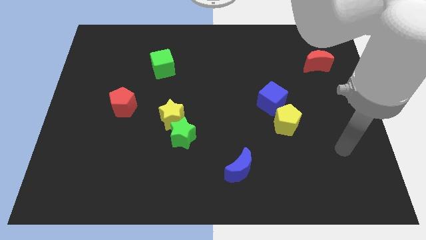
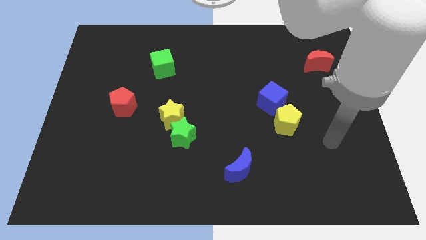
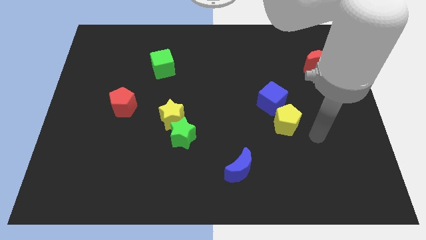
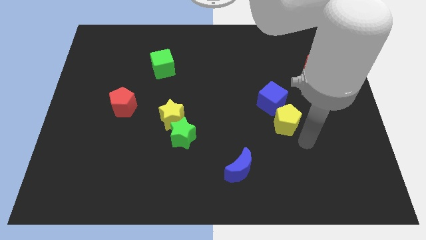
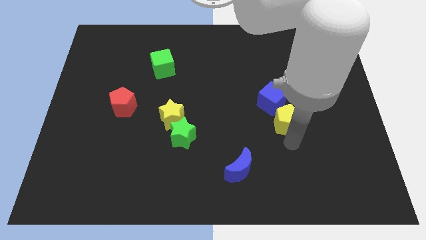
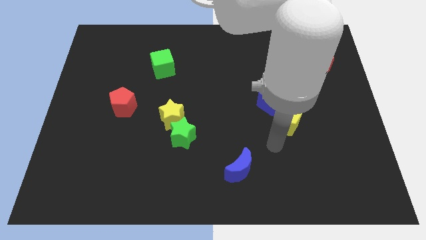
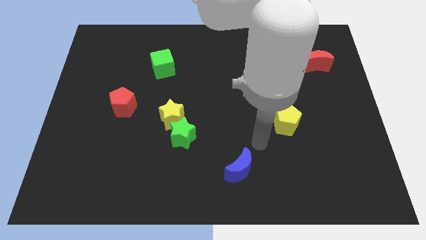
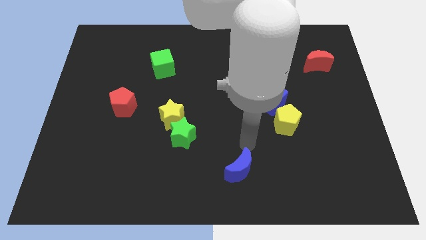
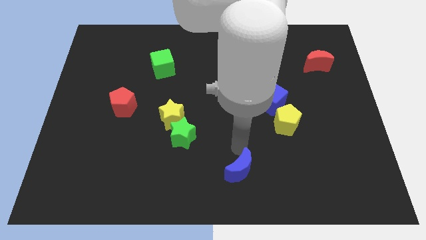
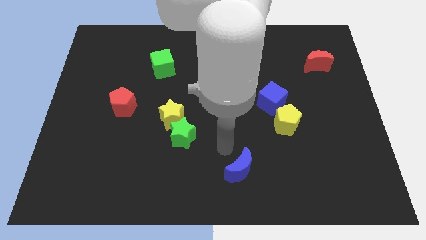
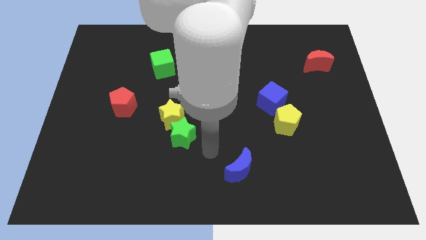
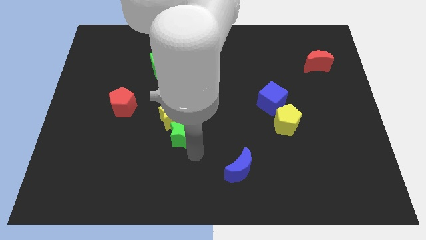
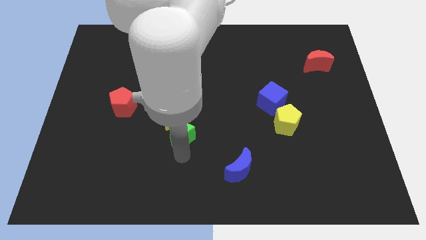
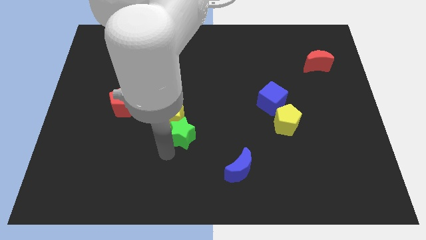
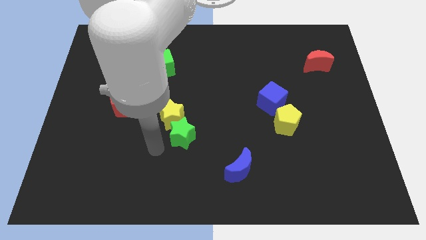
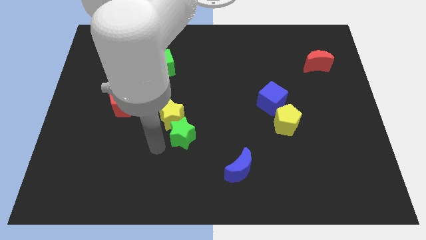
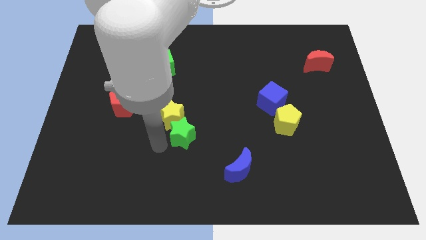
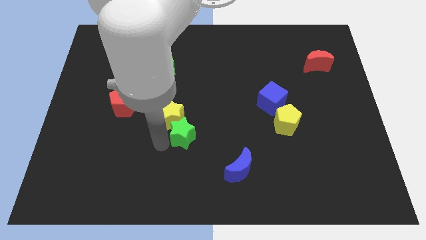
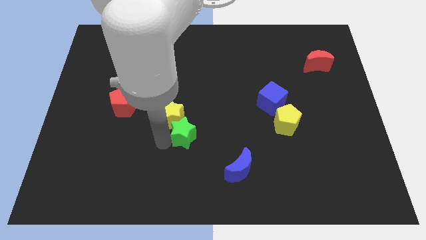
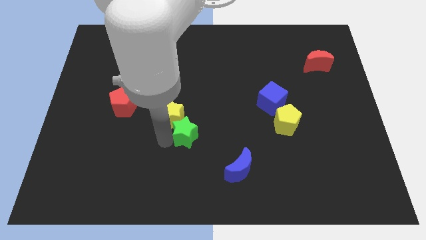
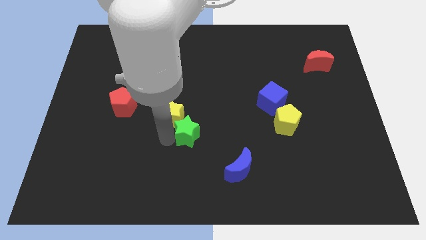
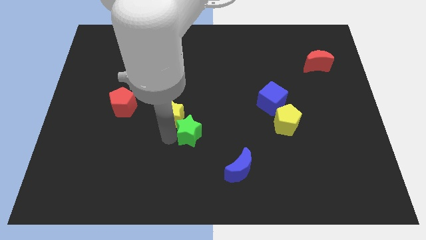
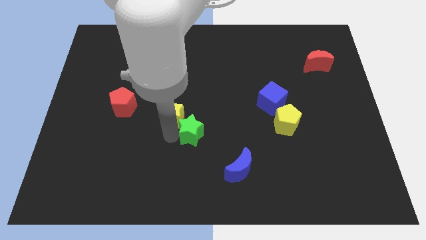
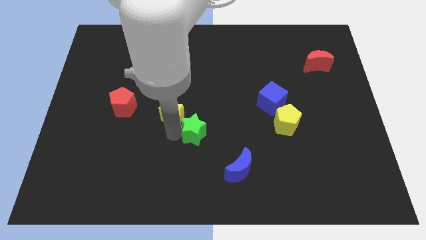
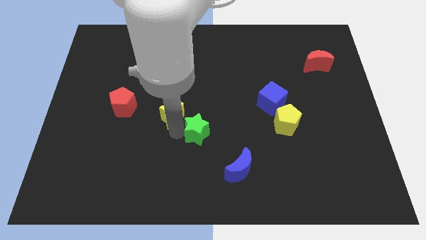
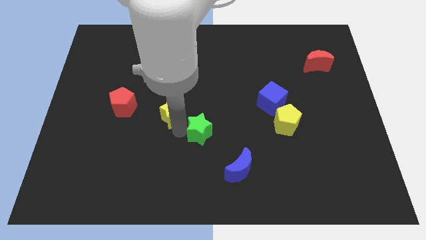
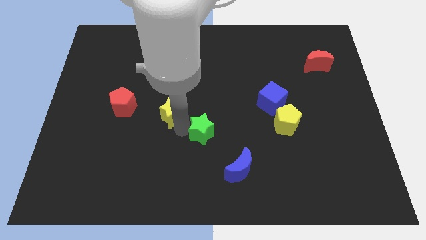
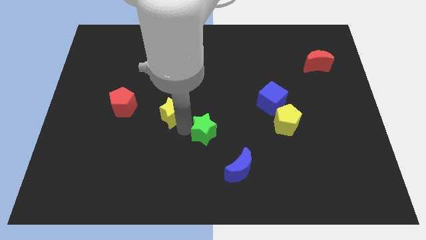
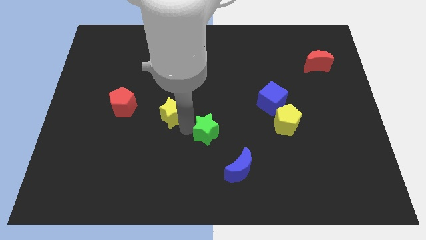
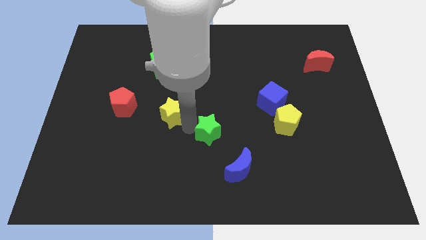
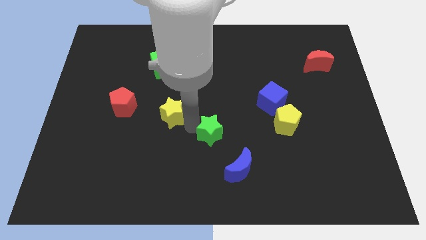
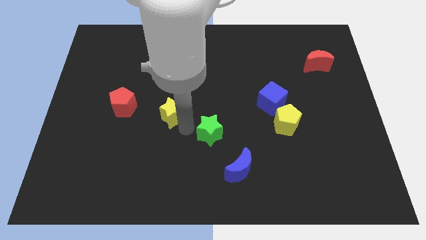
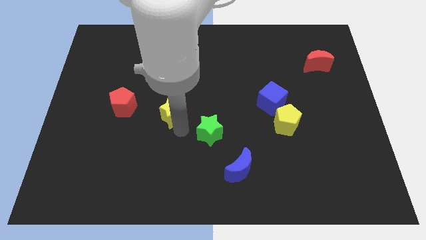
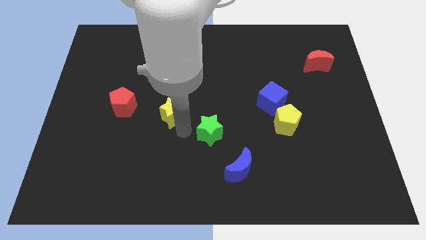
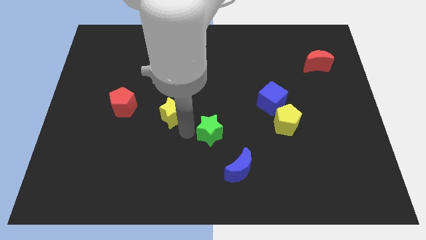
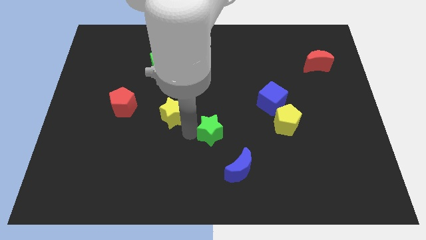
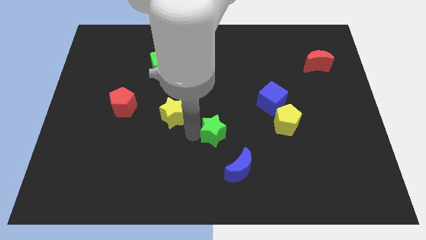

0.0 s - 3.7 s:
move the green star right a little

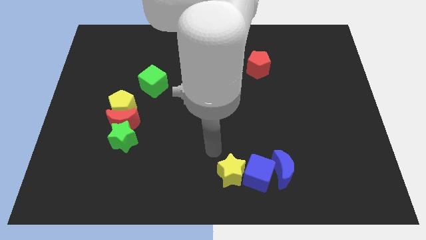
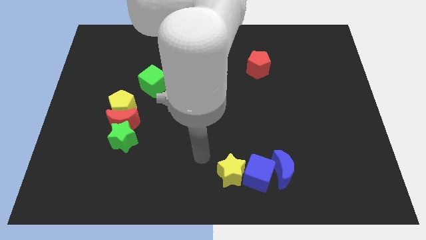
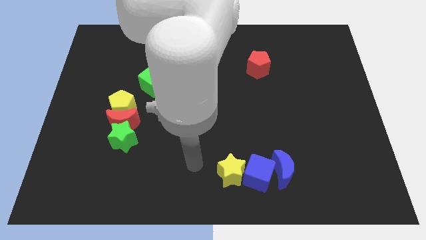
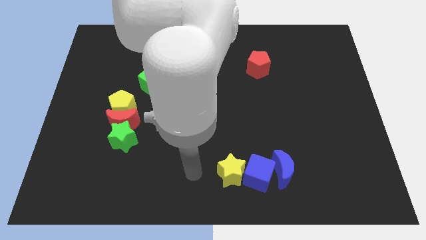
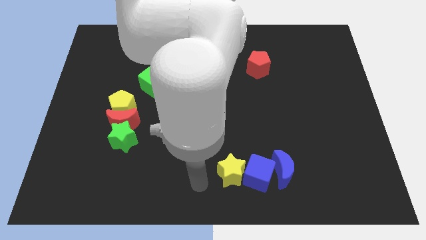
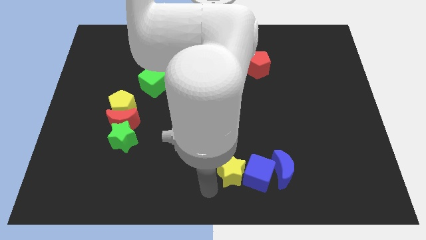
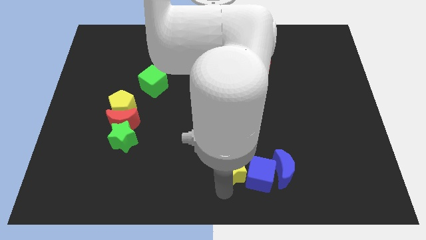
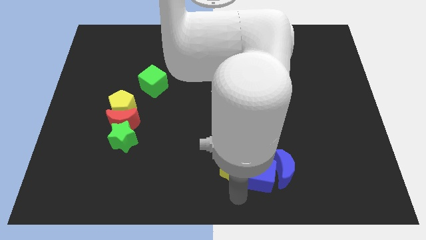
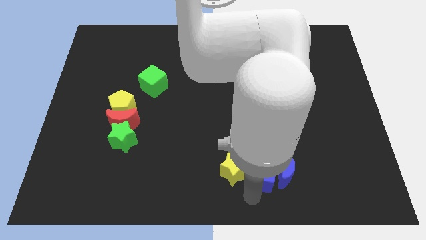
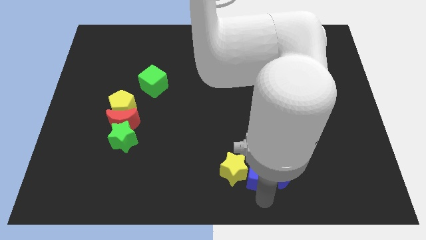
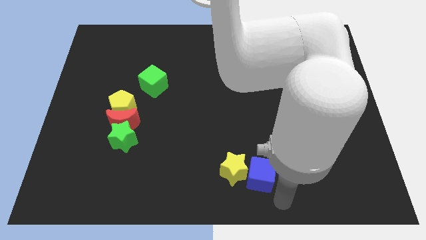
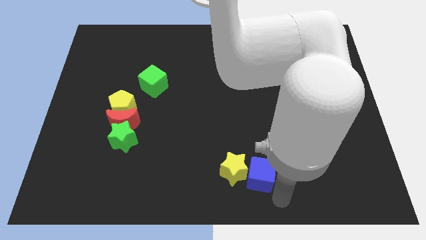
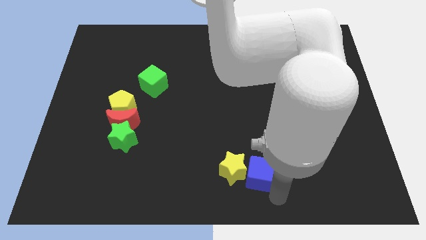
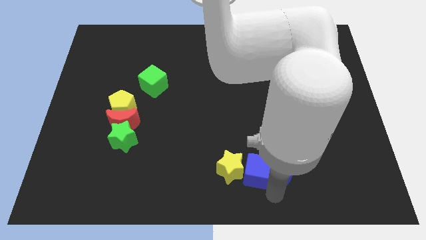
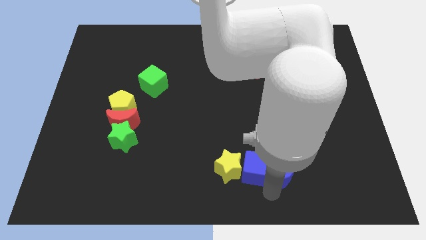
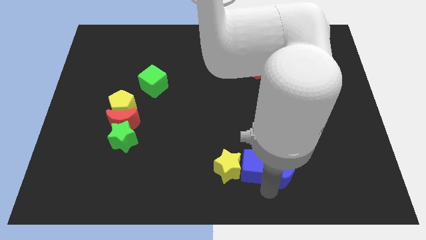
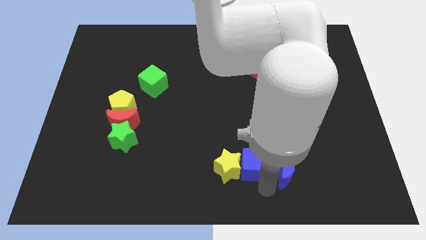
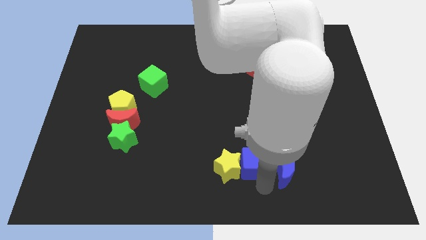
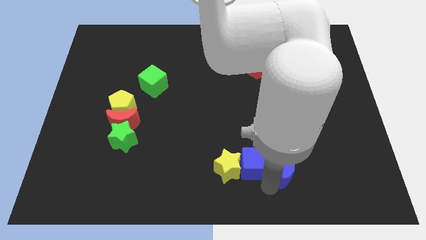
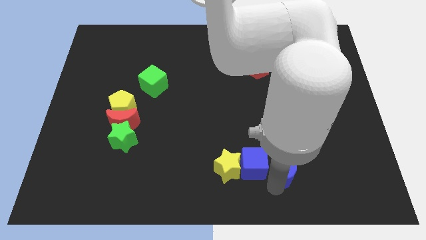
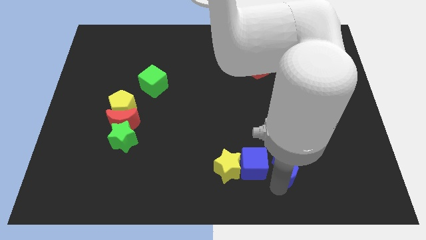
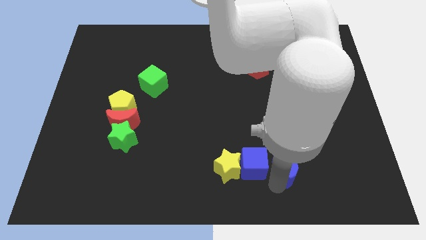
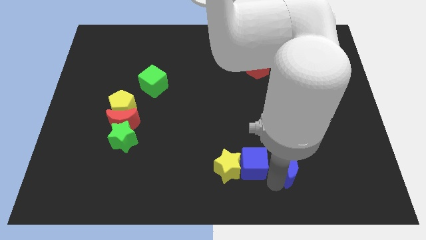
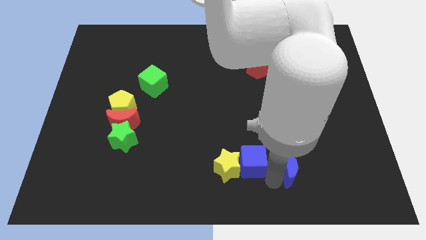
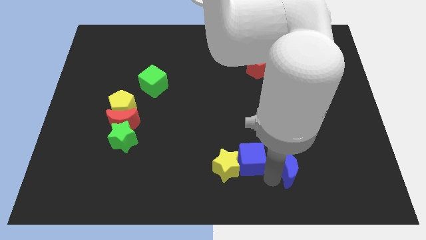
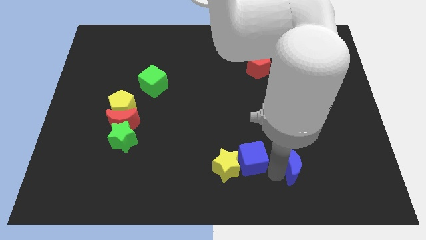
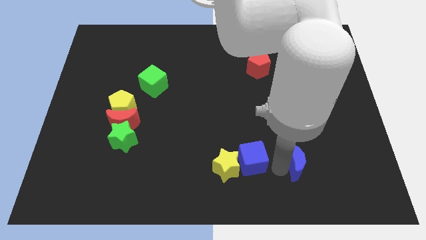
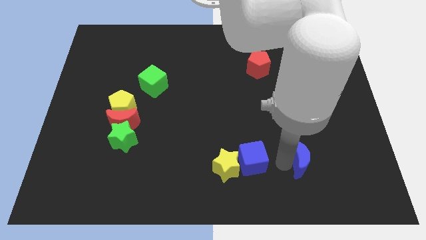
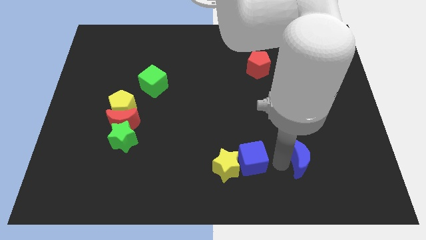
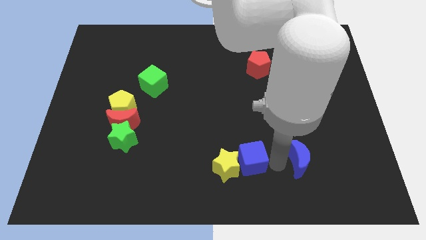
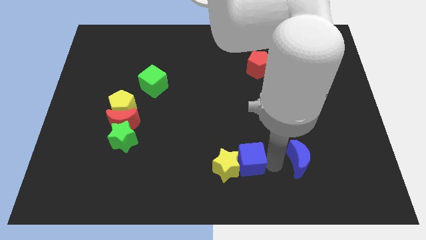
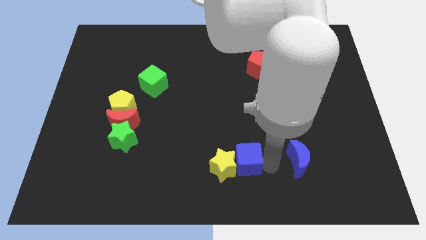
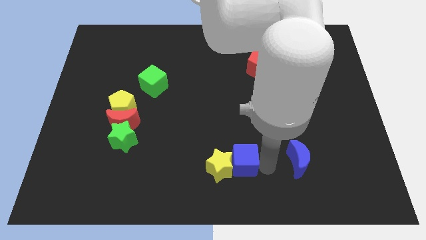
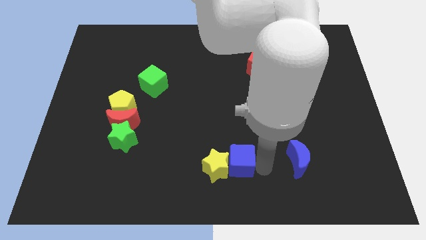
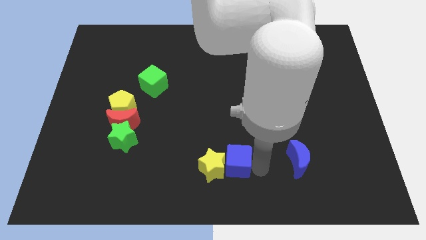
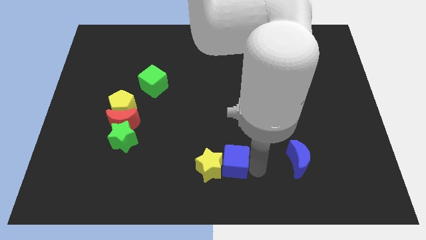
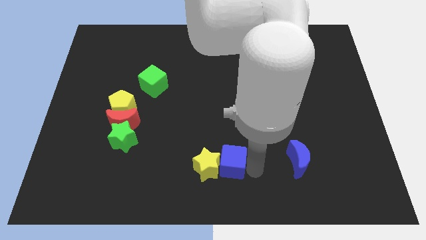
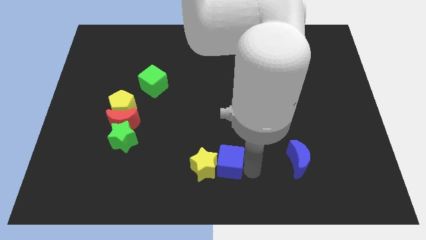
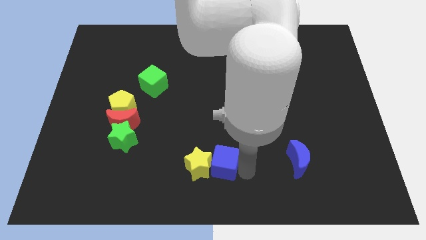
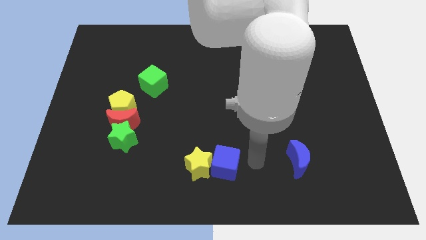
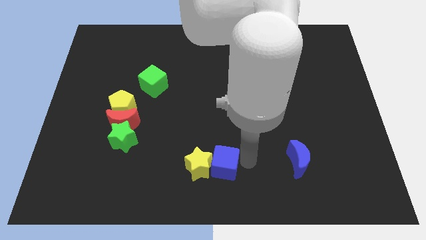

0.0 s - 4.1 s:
move the blue cube left slightly
